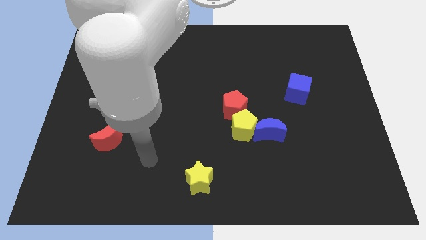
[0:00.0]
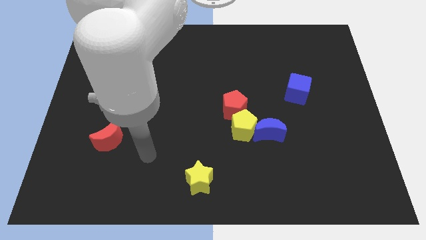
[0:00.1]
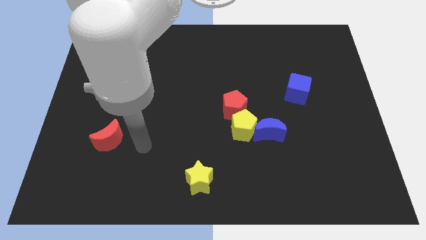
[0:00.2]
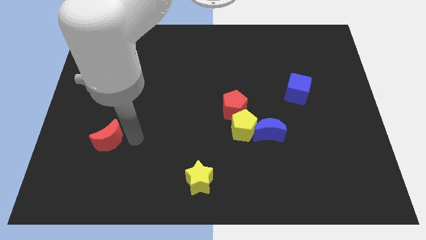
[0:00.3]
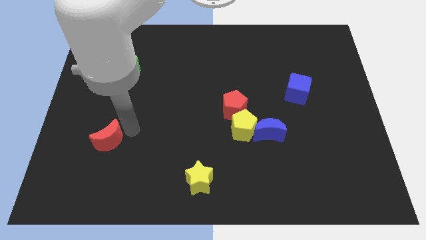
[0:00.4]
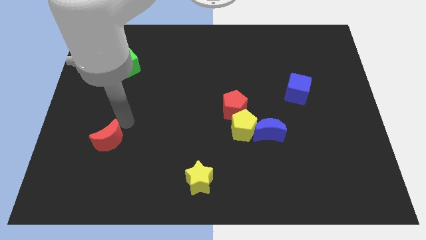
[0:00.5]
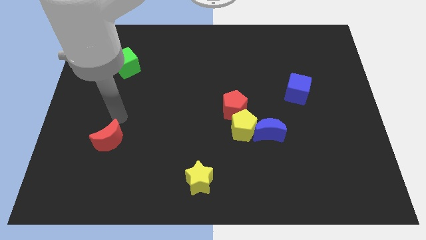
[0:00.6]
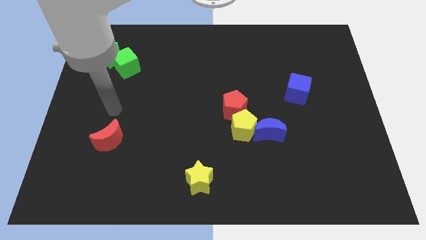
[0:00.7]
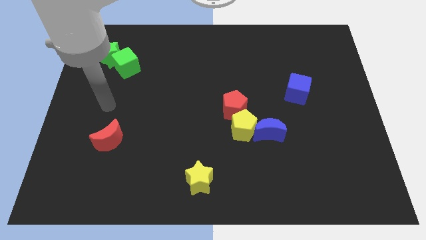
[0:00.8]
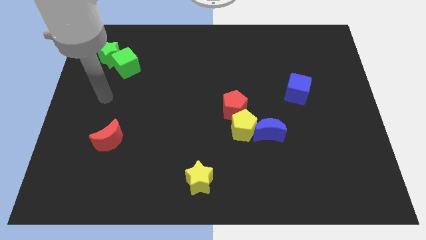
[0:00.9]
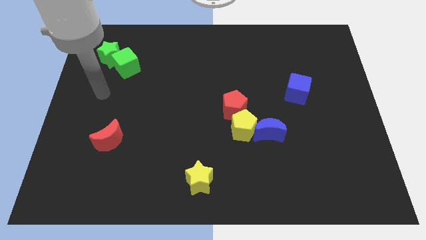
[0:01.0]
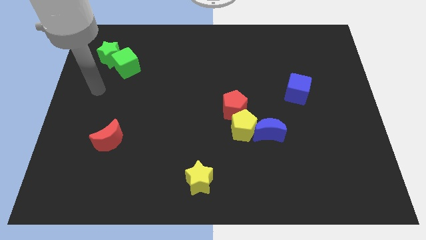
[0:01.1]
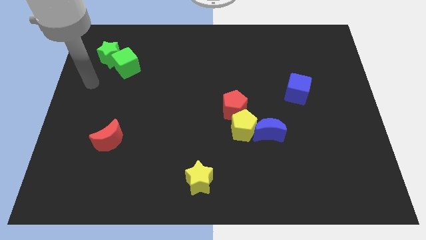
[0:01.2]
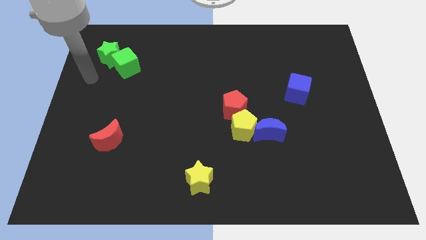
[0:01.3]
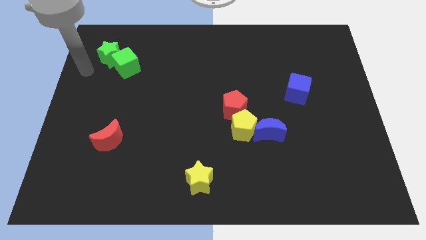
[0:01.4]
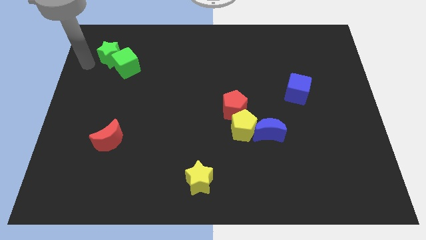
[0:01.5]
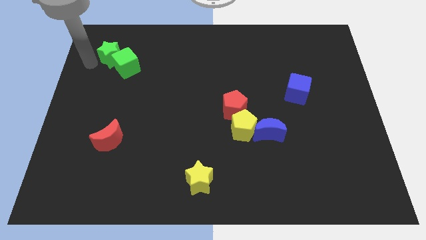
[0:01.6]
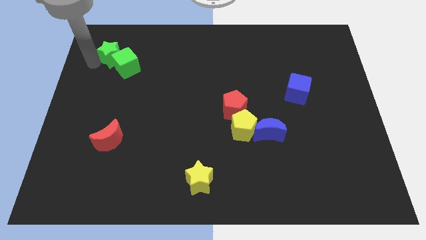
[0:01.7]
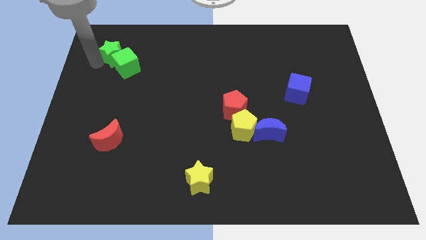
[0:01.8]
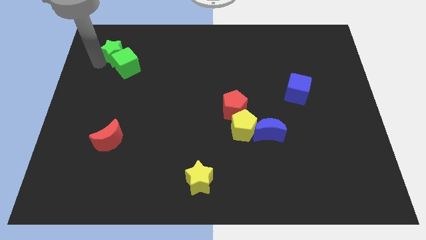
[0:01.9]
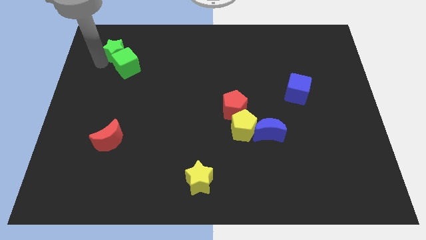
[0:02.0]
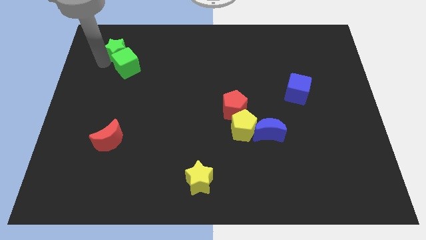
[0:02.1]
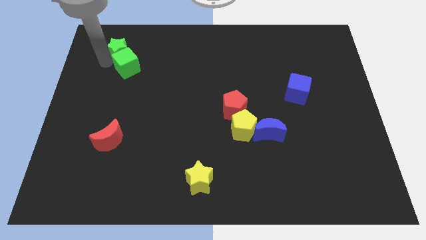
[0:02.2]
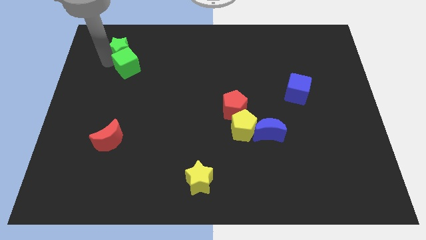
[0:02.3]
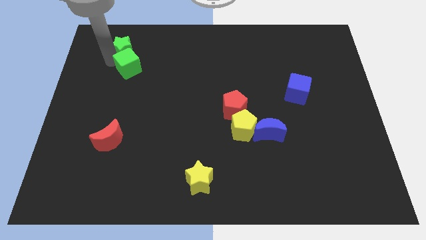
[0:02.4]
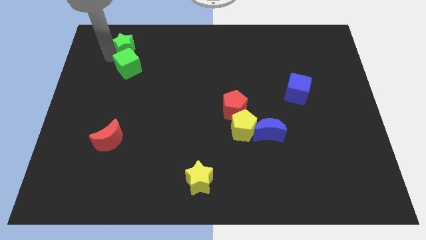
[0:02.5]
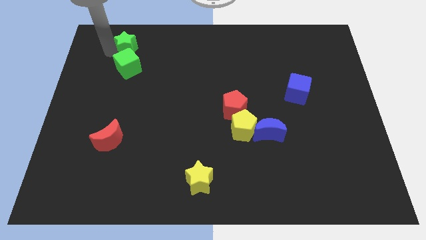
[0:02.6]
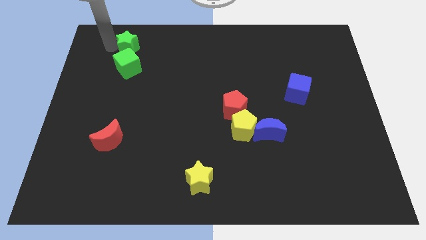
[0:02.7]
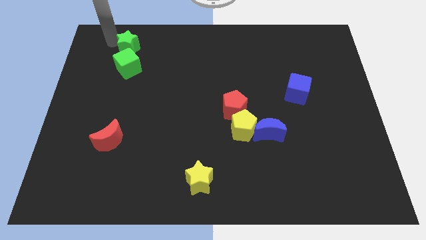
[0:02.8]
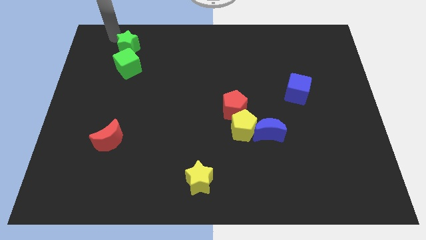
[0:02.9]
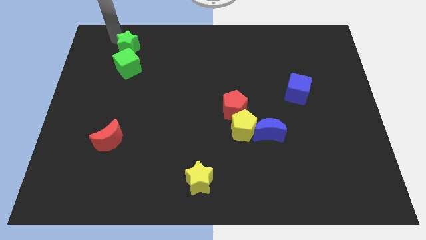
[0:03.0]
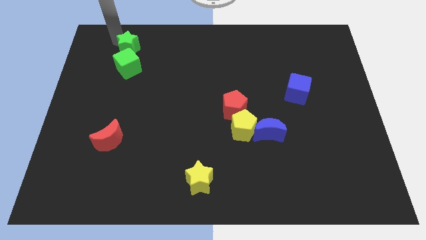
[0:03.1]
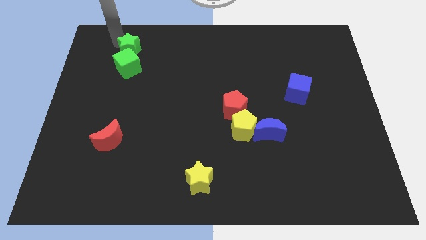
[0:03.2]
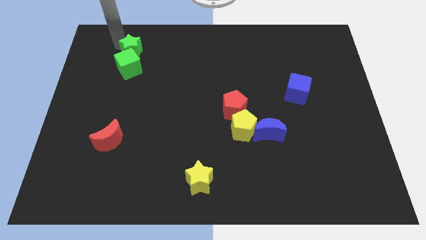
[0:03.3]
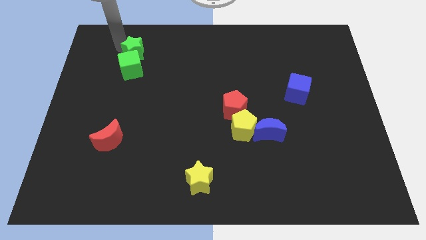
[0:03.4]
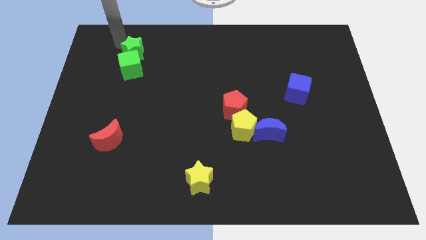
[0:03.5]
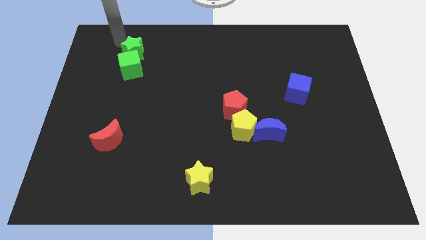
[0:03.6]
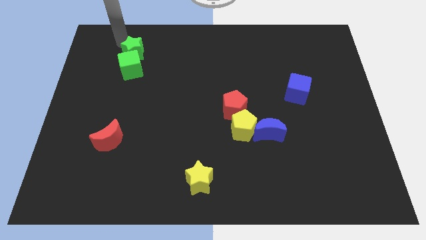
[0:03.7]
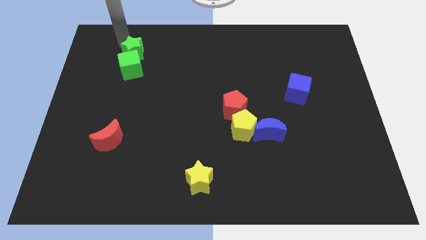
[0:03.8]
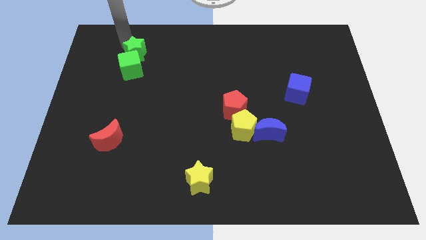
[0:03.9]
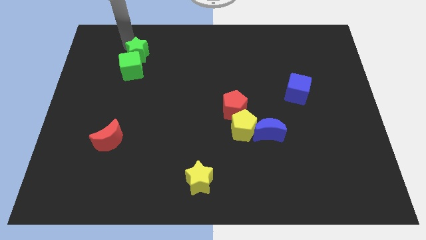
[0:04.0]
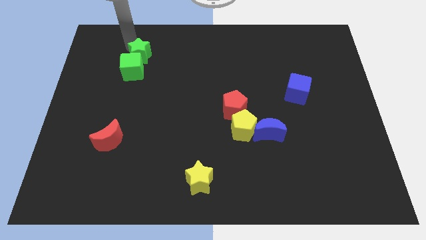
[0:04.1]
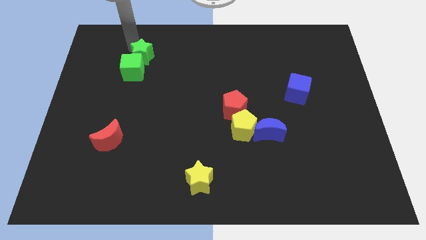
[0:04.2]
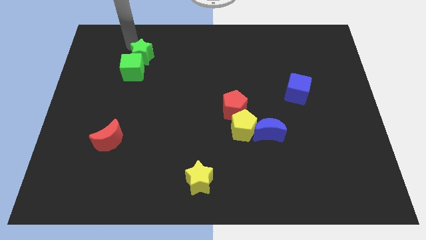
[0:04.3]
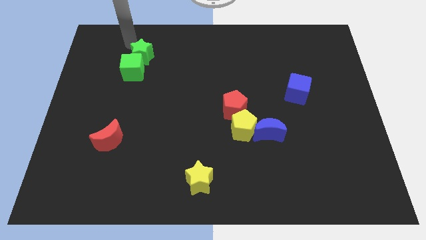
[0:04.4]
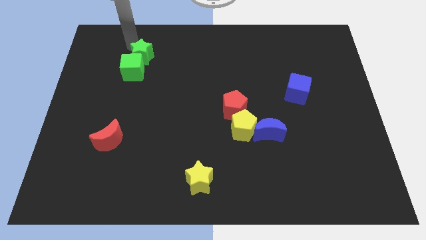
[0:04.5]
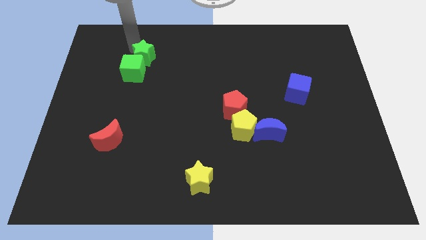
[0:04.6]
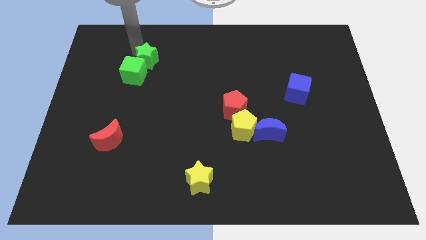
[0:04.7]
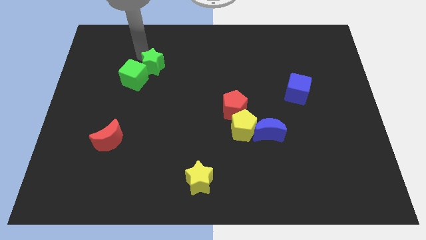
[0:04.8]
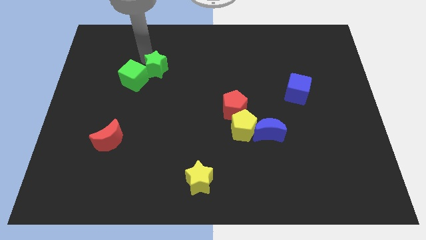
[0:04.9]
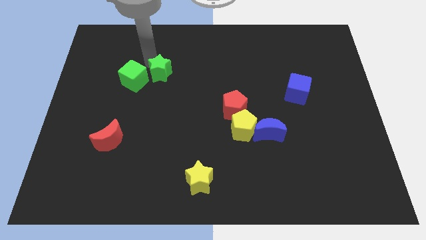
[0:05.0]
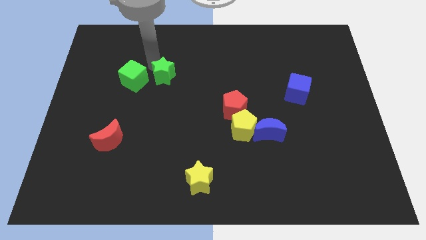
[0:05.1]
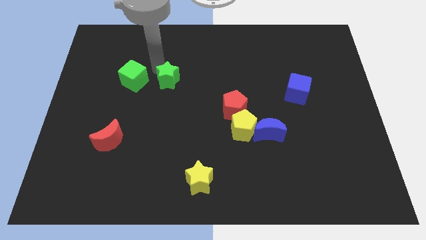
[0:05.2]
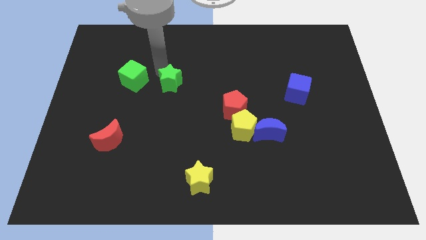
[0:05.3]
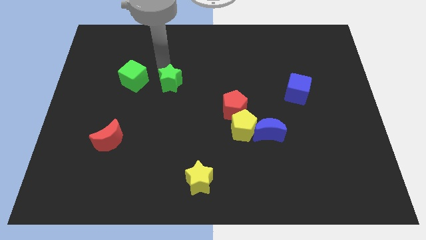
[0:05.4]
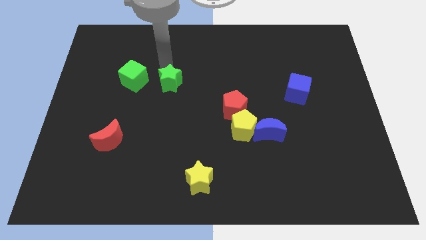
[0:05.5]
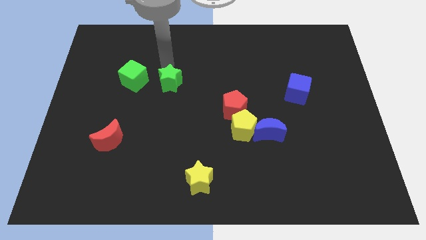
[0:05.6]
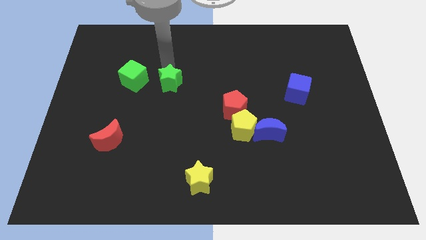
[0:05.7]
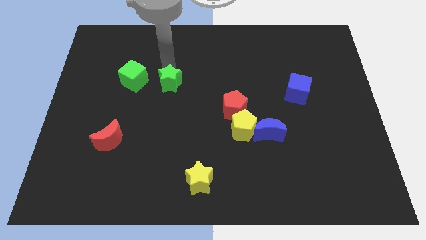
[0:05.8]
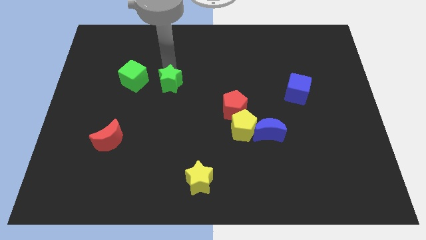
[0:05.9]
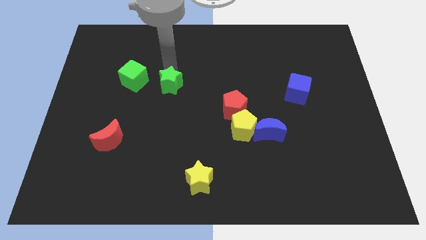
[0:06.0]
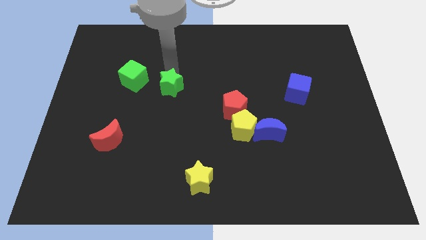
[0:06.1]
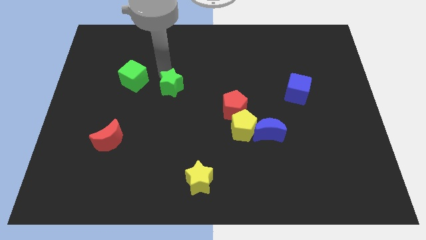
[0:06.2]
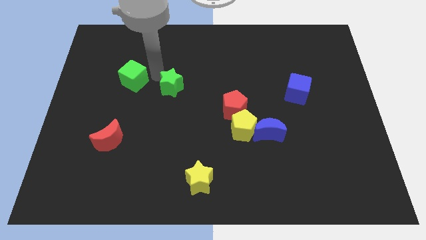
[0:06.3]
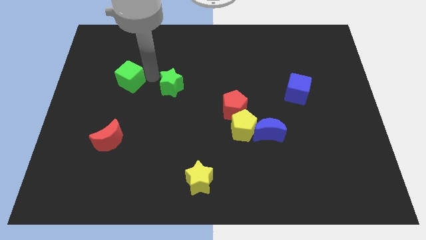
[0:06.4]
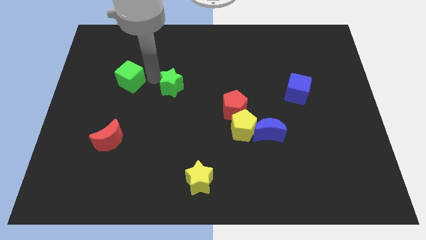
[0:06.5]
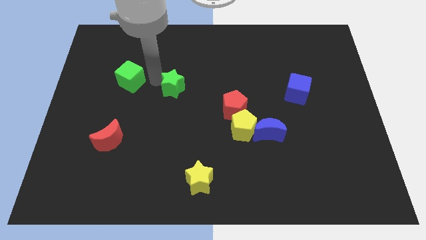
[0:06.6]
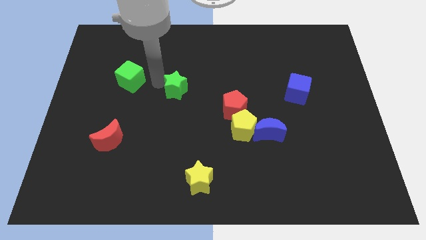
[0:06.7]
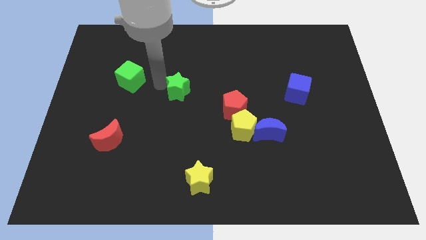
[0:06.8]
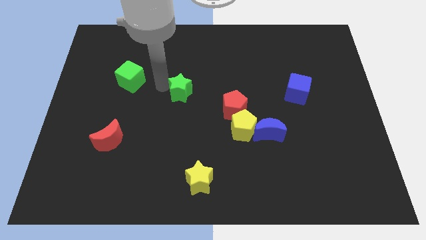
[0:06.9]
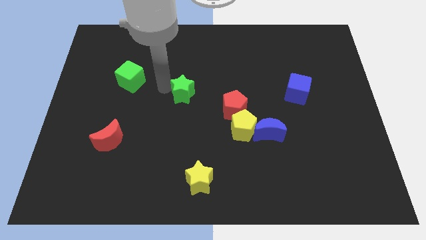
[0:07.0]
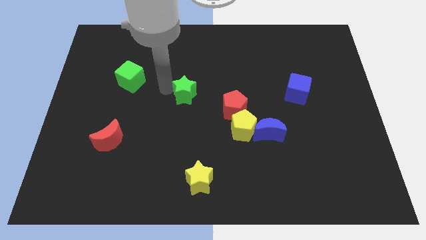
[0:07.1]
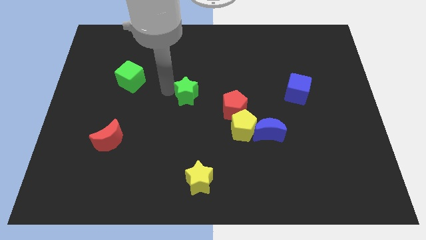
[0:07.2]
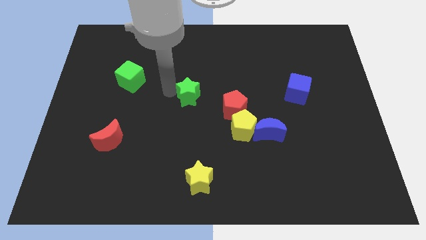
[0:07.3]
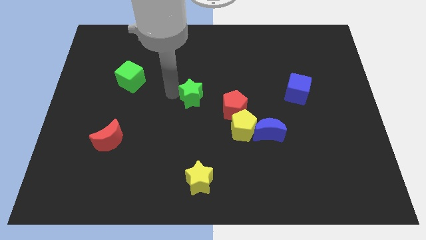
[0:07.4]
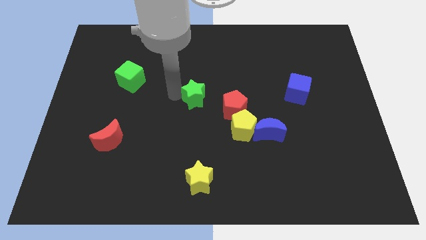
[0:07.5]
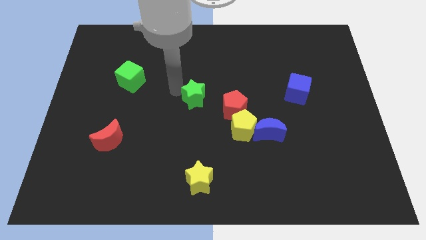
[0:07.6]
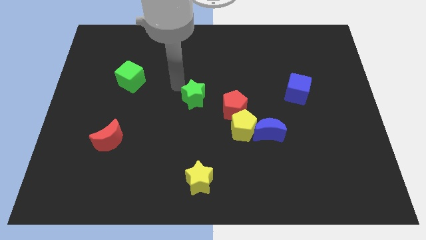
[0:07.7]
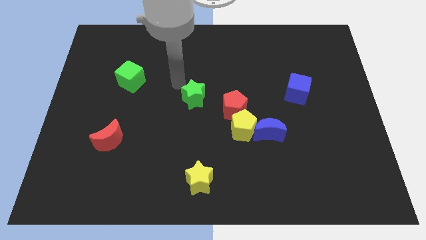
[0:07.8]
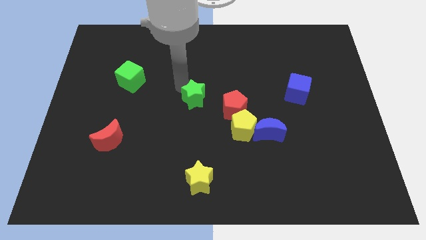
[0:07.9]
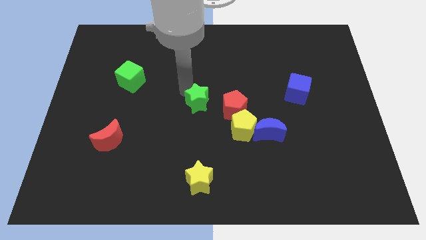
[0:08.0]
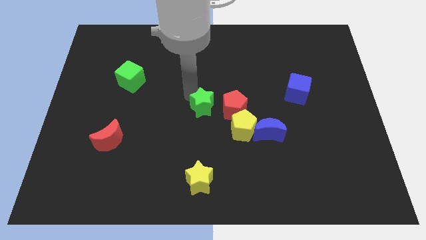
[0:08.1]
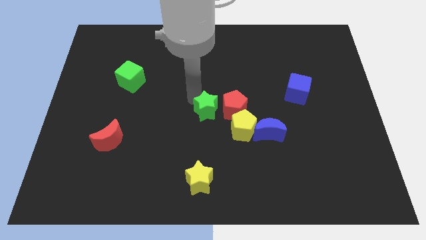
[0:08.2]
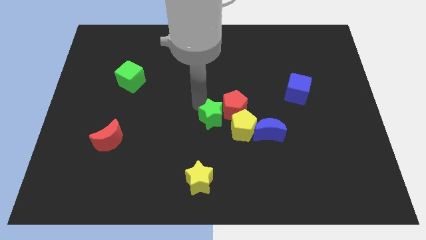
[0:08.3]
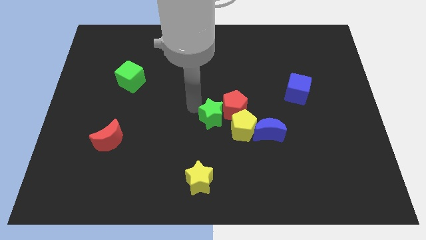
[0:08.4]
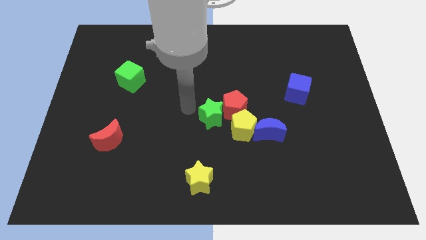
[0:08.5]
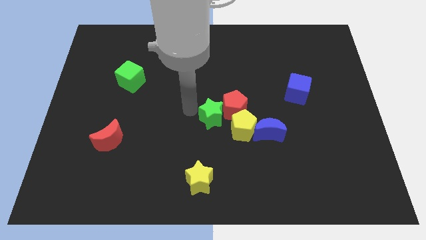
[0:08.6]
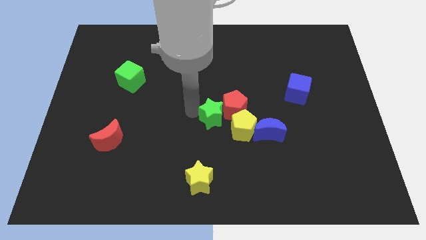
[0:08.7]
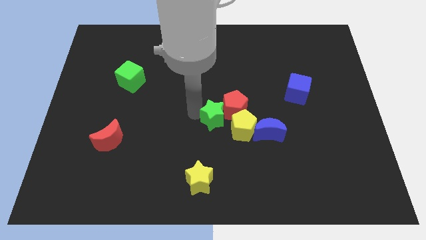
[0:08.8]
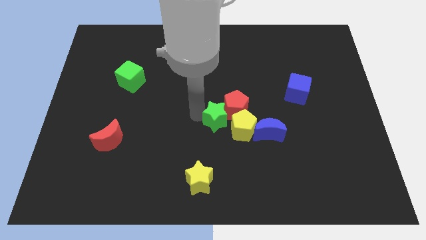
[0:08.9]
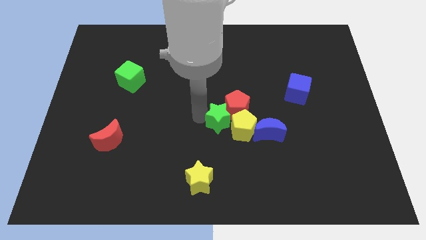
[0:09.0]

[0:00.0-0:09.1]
put the green star close to the yellow pentagon
